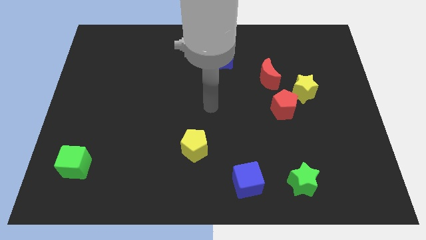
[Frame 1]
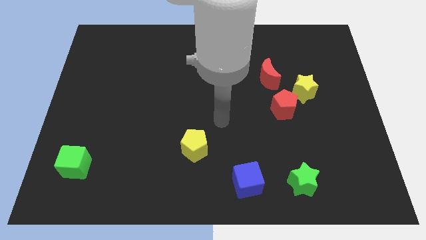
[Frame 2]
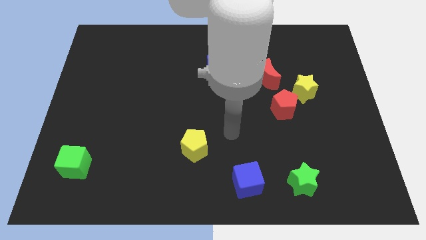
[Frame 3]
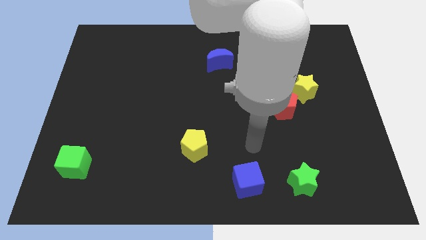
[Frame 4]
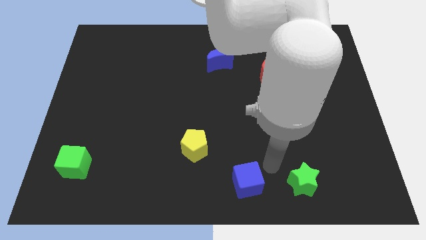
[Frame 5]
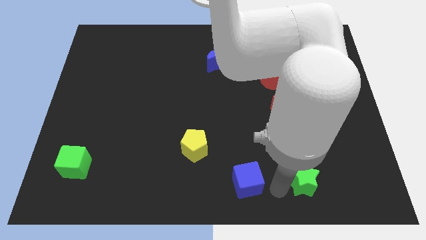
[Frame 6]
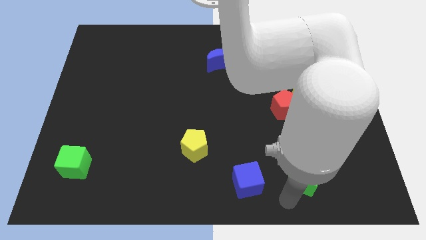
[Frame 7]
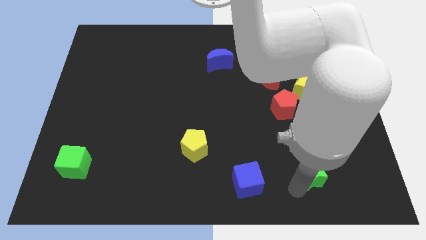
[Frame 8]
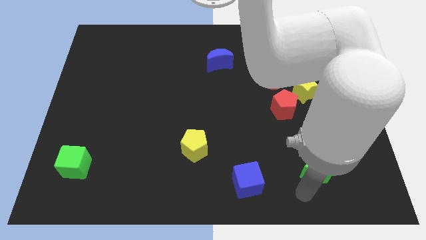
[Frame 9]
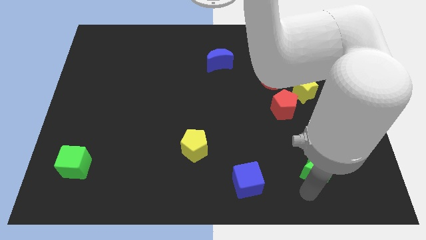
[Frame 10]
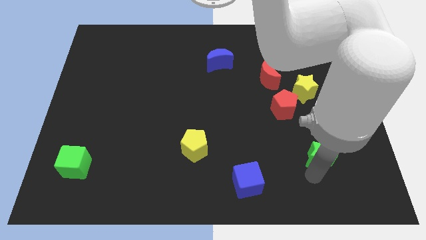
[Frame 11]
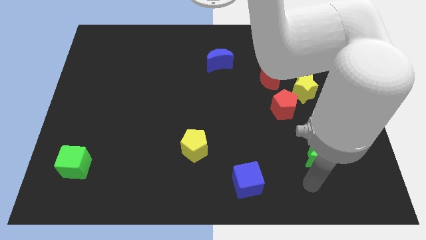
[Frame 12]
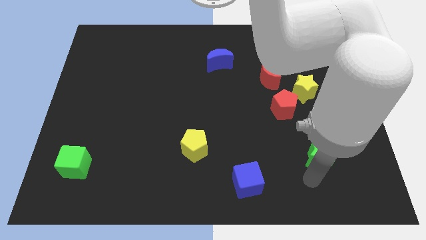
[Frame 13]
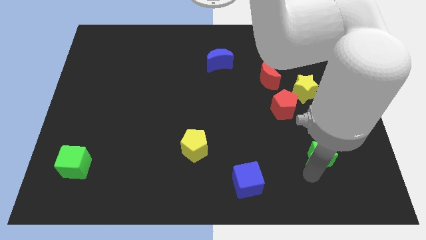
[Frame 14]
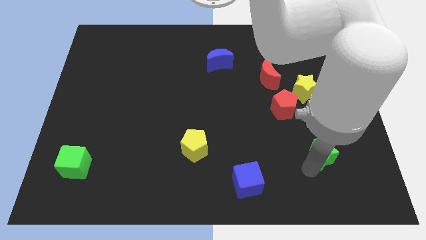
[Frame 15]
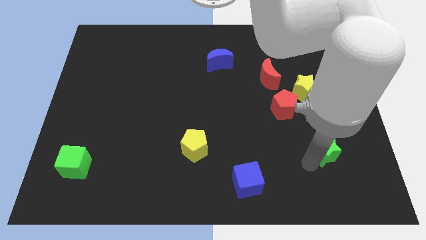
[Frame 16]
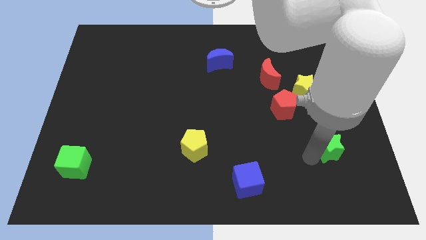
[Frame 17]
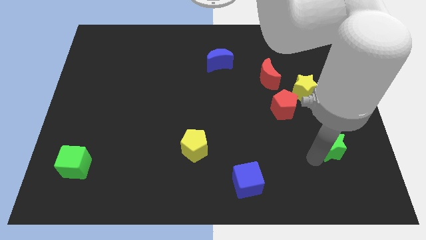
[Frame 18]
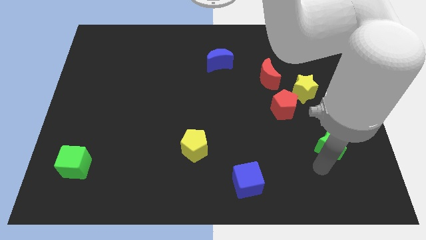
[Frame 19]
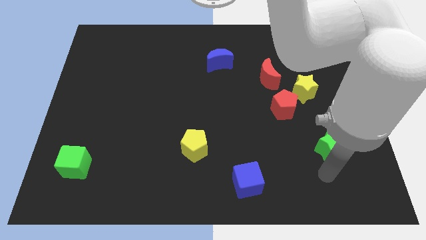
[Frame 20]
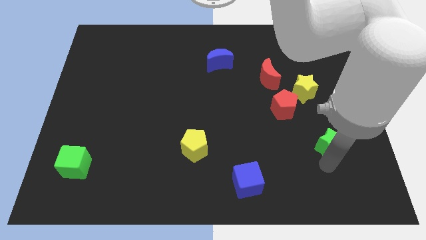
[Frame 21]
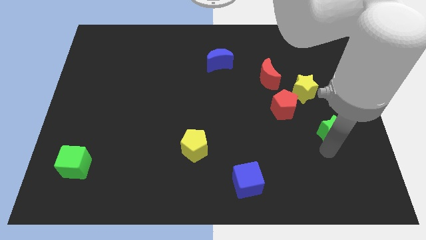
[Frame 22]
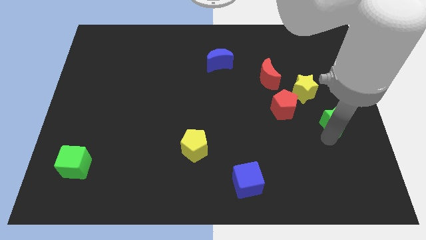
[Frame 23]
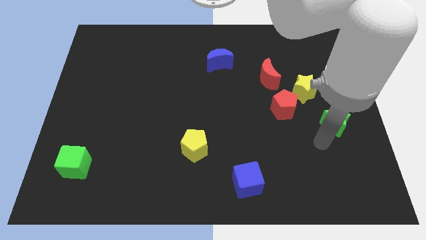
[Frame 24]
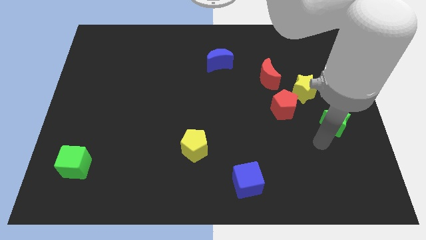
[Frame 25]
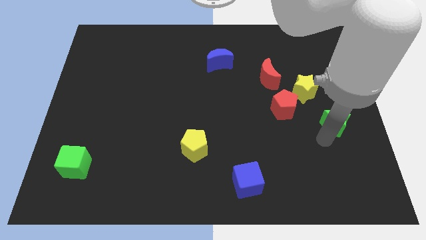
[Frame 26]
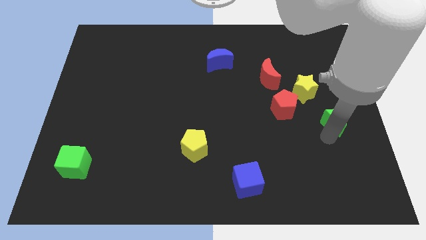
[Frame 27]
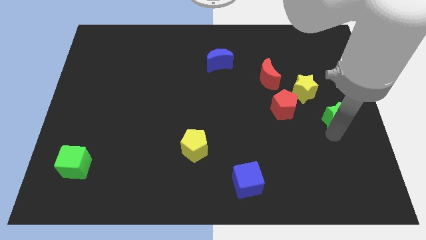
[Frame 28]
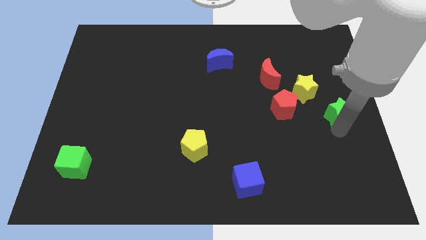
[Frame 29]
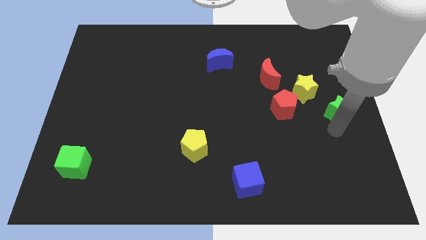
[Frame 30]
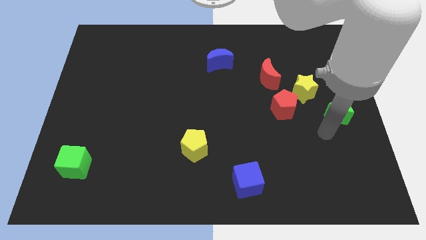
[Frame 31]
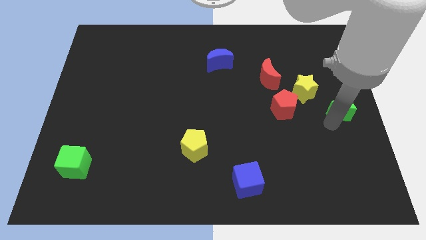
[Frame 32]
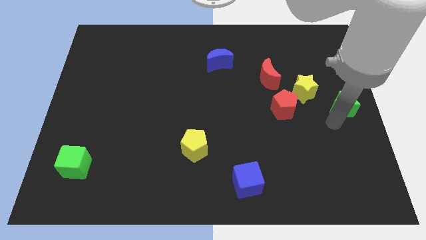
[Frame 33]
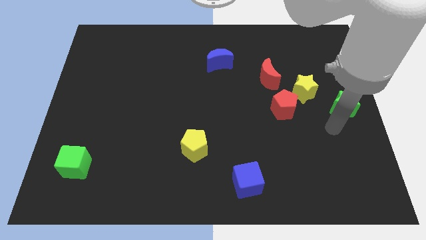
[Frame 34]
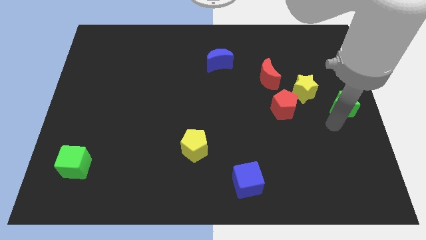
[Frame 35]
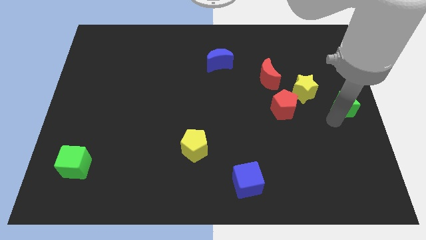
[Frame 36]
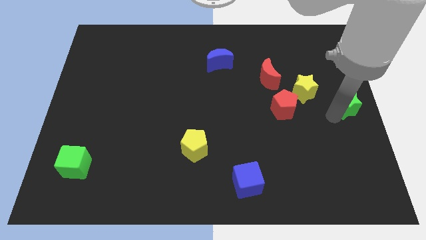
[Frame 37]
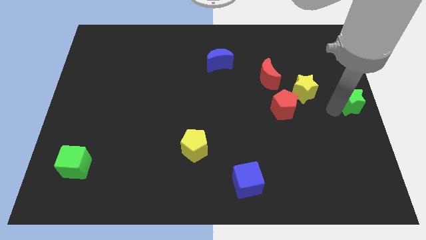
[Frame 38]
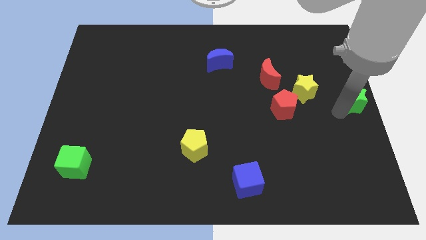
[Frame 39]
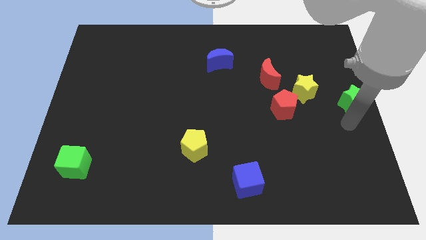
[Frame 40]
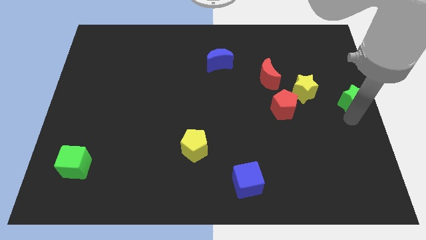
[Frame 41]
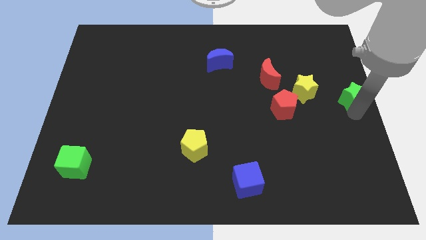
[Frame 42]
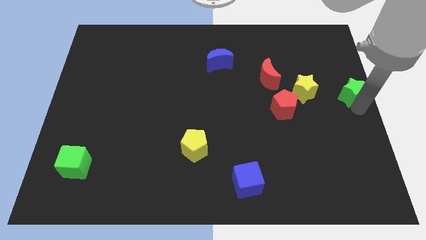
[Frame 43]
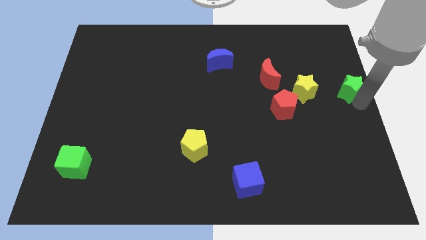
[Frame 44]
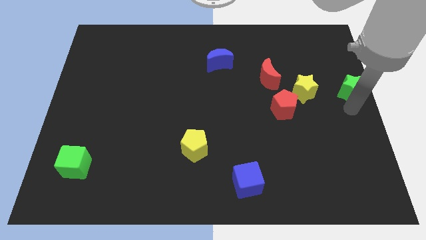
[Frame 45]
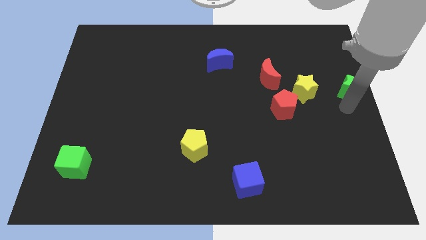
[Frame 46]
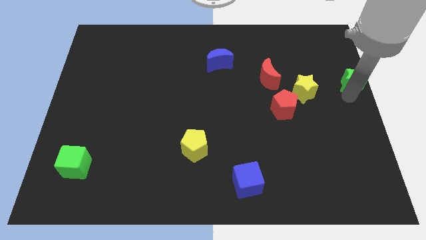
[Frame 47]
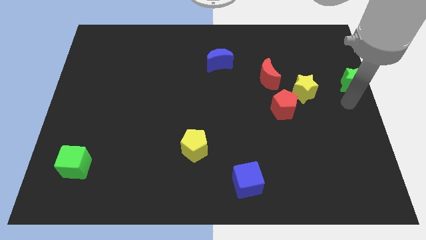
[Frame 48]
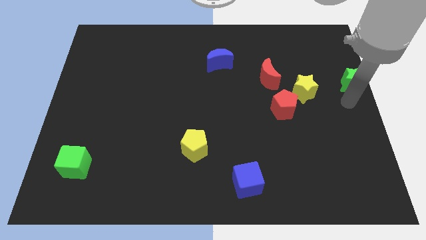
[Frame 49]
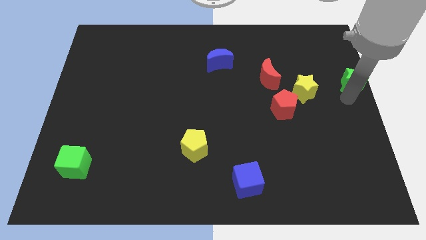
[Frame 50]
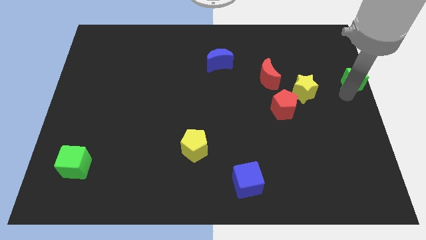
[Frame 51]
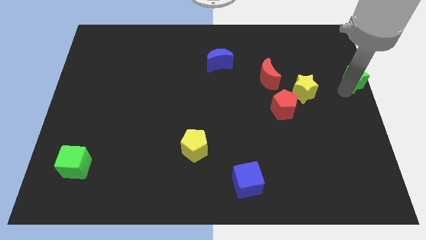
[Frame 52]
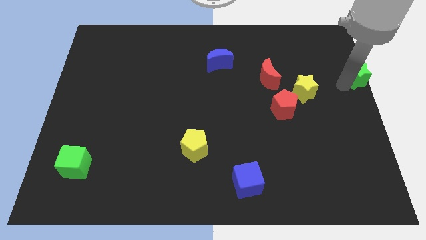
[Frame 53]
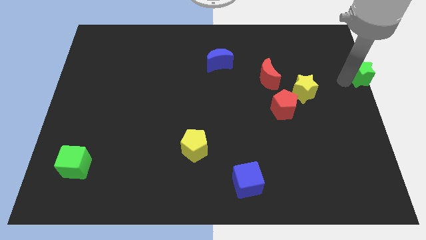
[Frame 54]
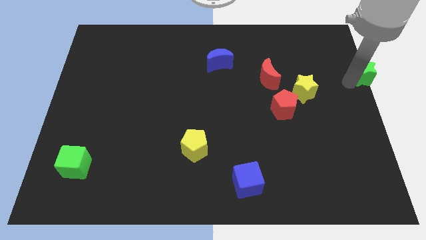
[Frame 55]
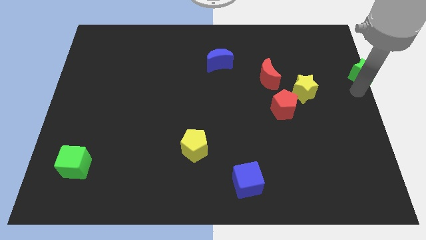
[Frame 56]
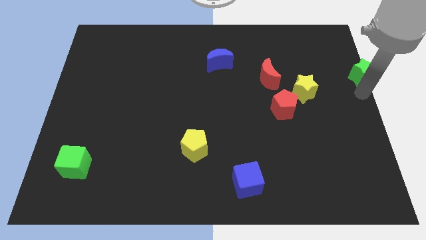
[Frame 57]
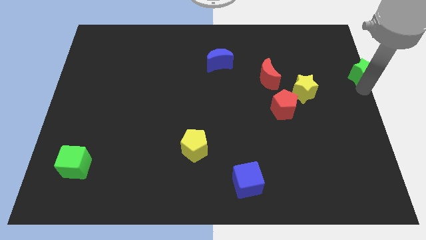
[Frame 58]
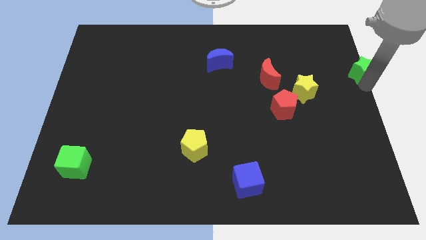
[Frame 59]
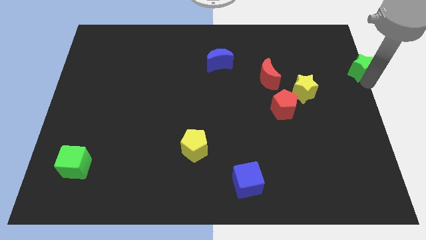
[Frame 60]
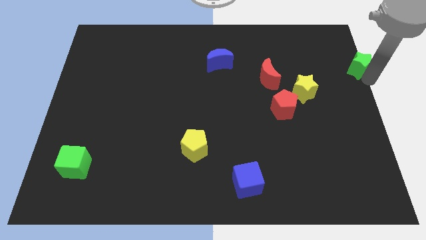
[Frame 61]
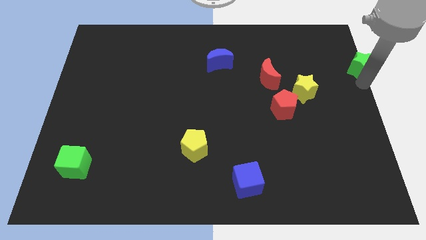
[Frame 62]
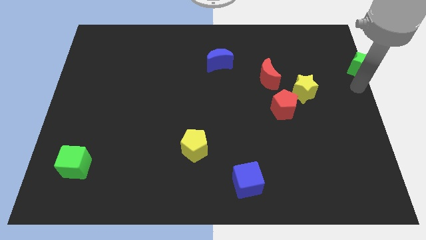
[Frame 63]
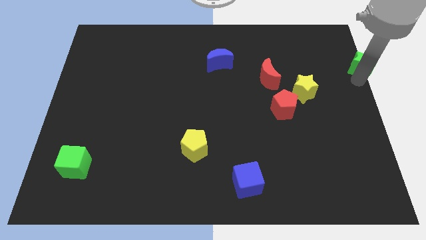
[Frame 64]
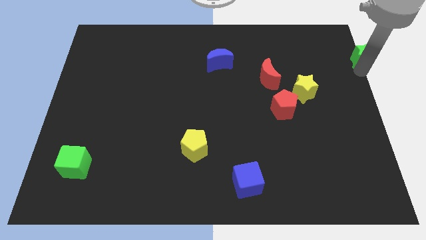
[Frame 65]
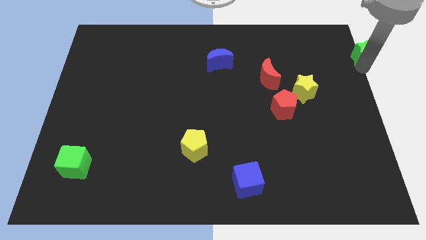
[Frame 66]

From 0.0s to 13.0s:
put the green star to the upper right corner
